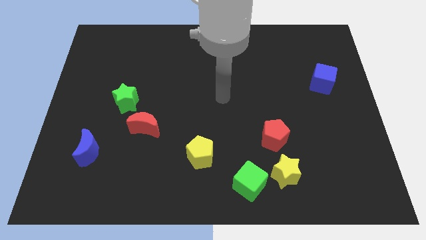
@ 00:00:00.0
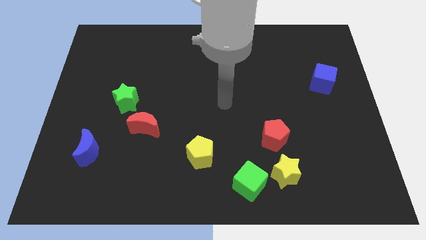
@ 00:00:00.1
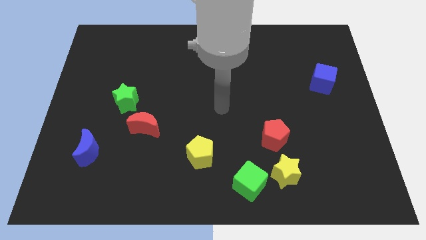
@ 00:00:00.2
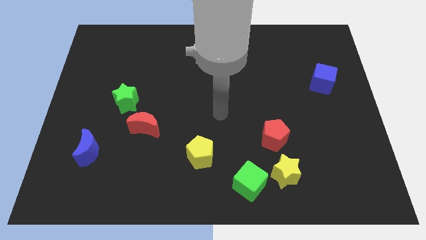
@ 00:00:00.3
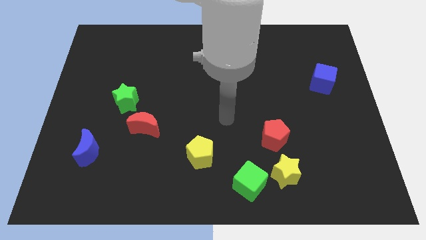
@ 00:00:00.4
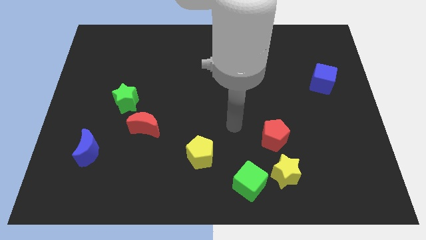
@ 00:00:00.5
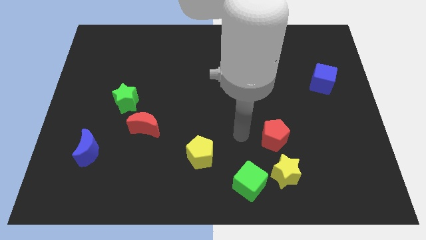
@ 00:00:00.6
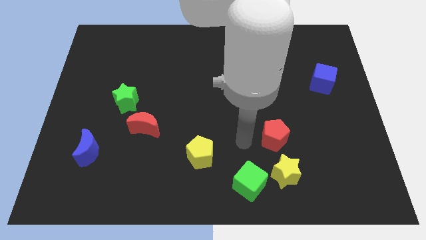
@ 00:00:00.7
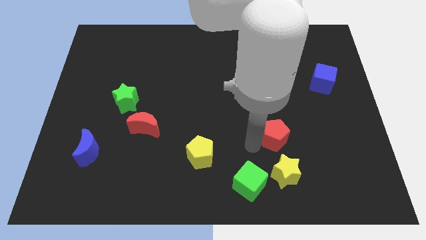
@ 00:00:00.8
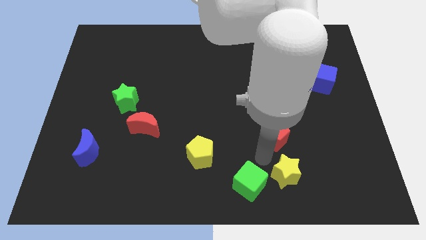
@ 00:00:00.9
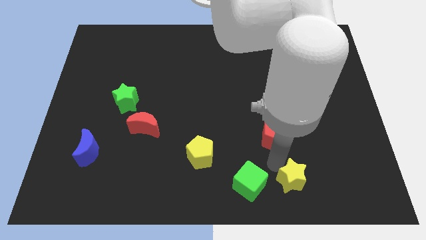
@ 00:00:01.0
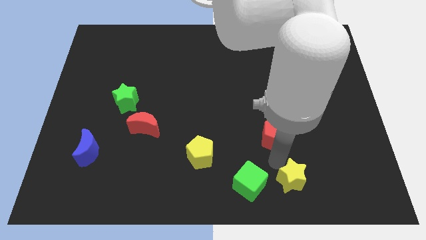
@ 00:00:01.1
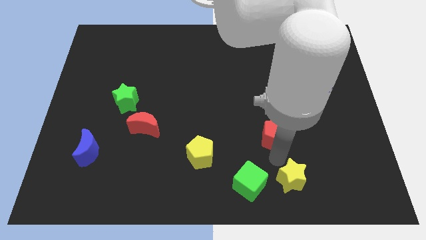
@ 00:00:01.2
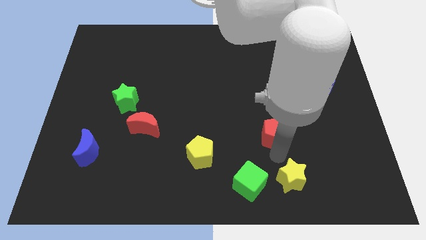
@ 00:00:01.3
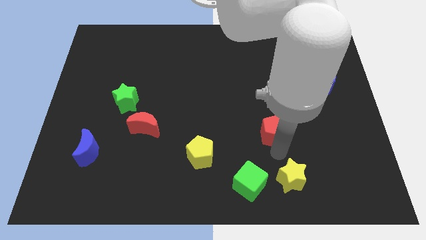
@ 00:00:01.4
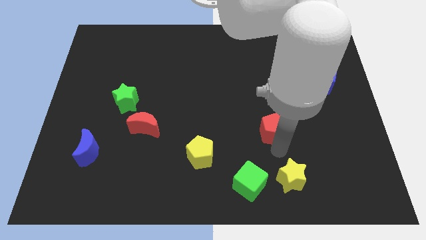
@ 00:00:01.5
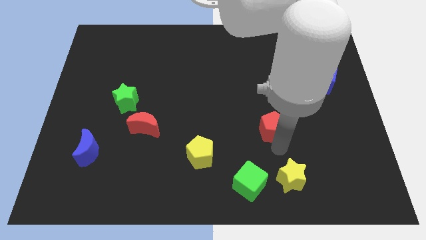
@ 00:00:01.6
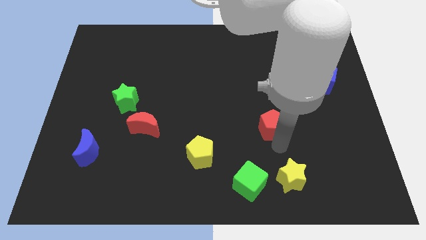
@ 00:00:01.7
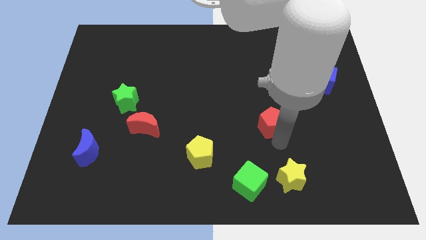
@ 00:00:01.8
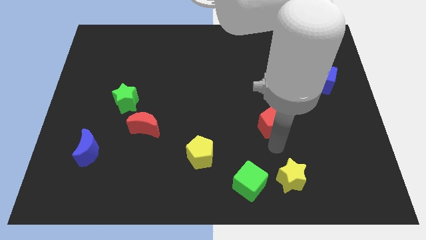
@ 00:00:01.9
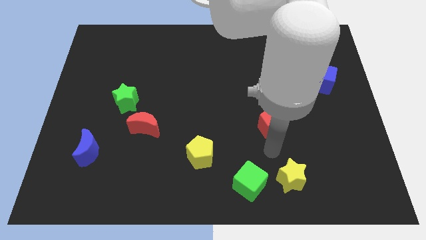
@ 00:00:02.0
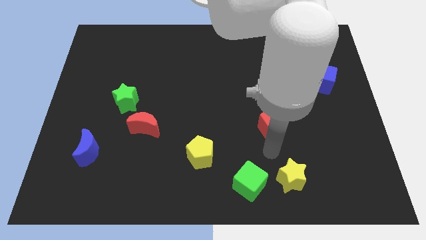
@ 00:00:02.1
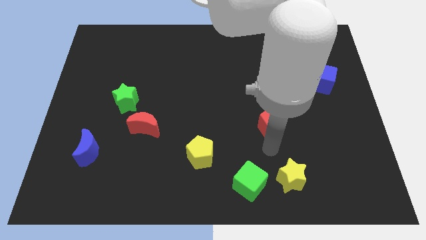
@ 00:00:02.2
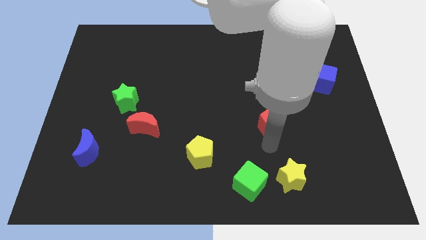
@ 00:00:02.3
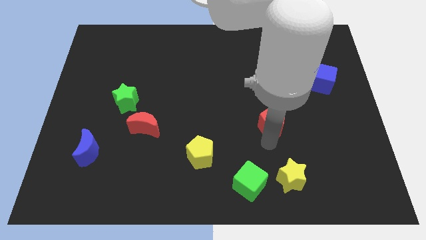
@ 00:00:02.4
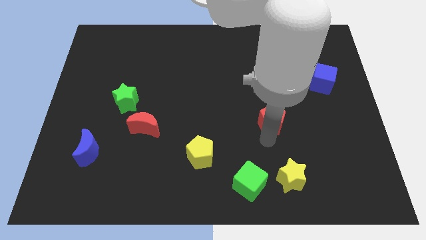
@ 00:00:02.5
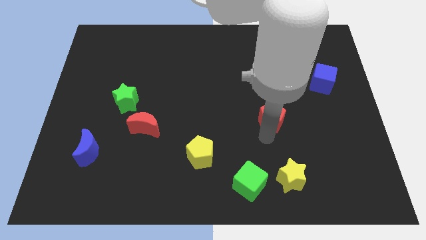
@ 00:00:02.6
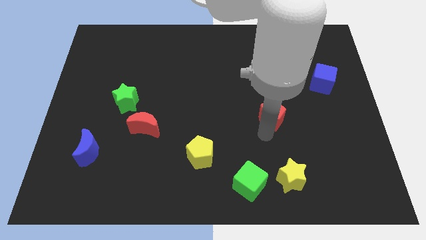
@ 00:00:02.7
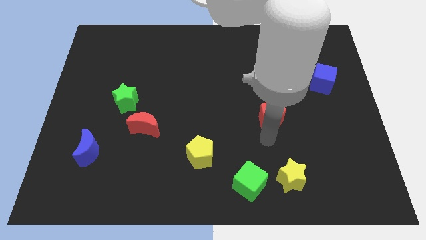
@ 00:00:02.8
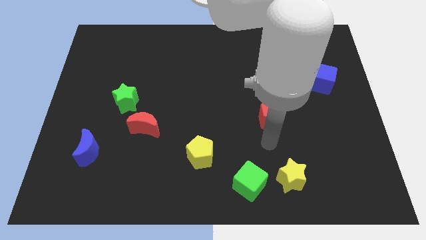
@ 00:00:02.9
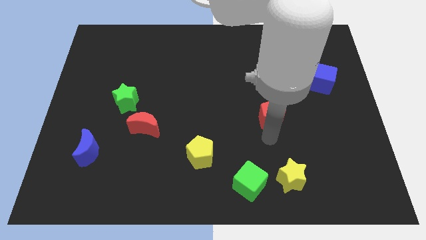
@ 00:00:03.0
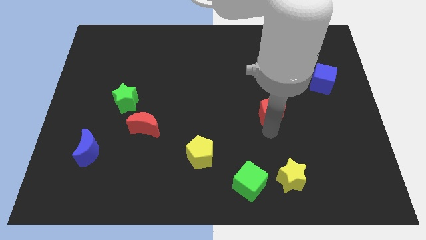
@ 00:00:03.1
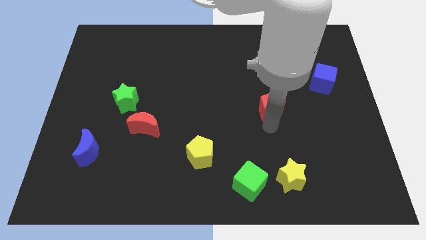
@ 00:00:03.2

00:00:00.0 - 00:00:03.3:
push the red pentagon somewhat upwards

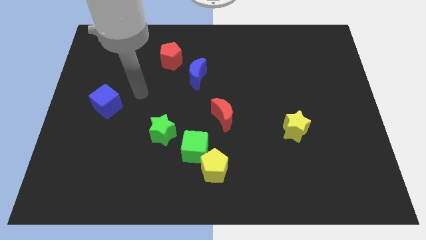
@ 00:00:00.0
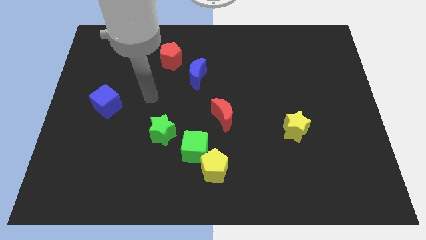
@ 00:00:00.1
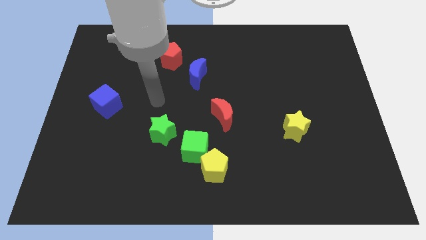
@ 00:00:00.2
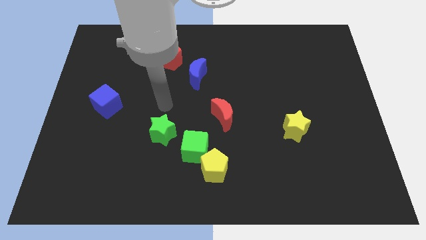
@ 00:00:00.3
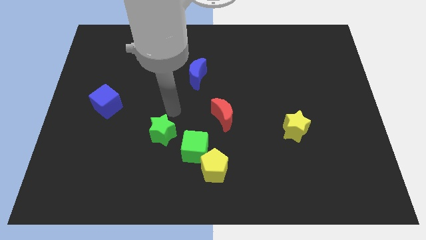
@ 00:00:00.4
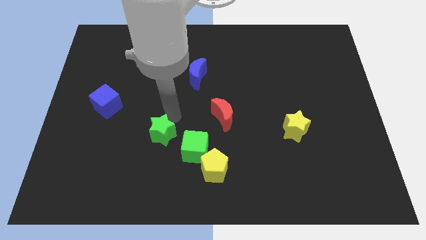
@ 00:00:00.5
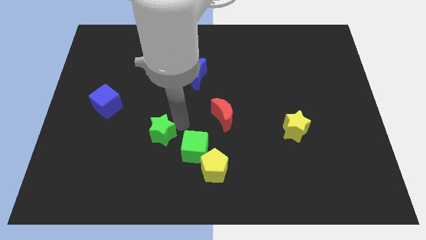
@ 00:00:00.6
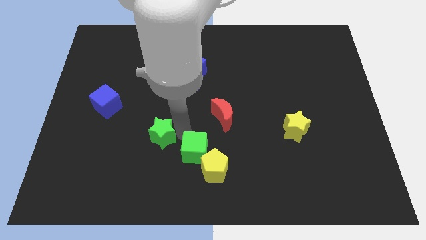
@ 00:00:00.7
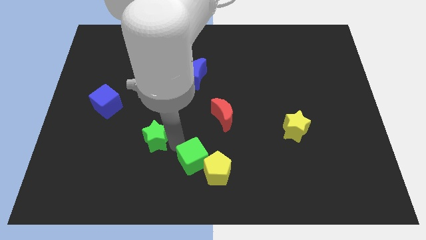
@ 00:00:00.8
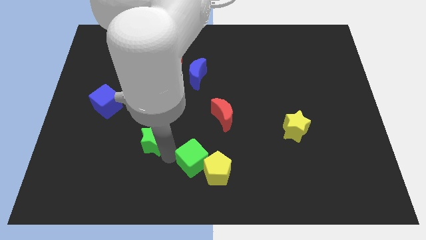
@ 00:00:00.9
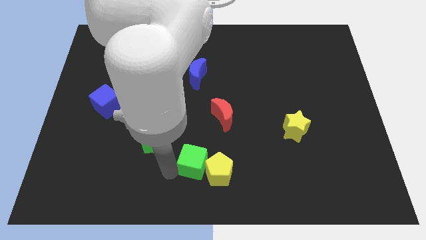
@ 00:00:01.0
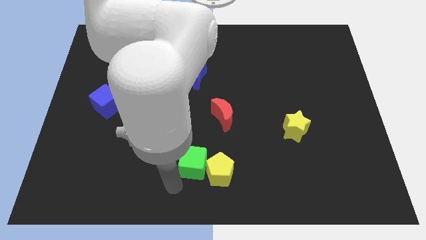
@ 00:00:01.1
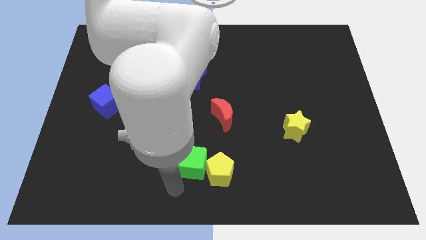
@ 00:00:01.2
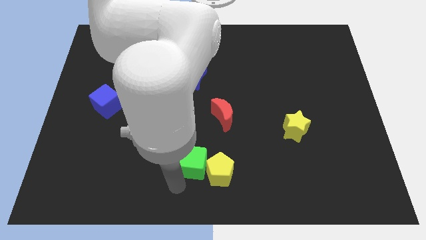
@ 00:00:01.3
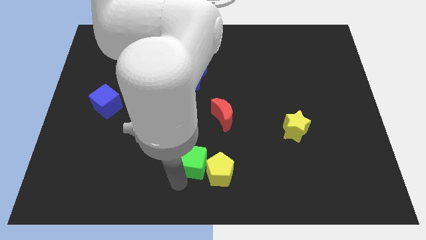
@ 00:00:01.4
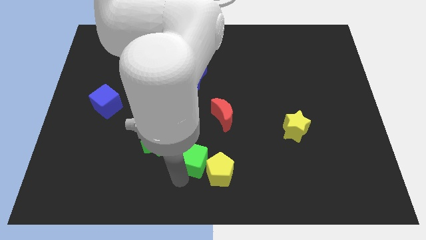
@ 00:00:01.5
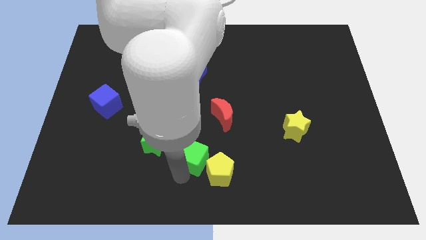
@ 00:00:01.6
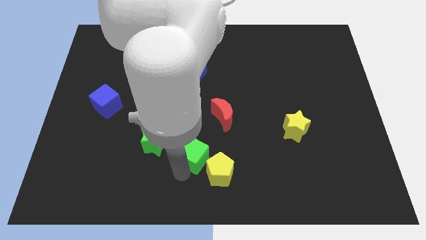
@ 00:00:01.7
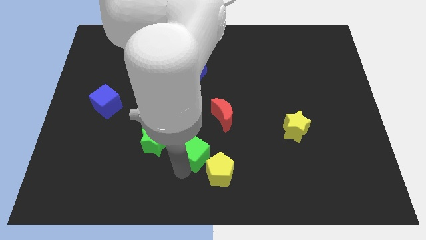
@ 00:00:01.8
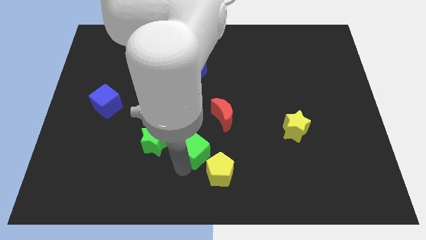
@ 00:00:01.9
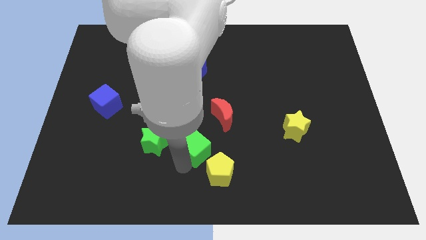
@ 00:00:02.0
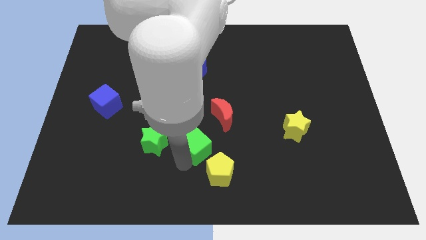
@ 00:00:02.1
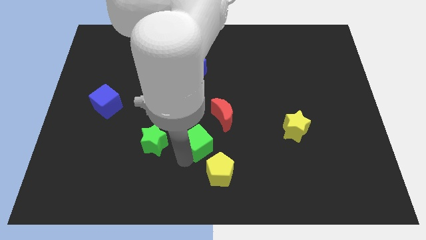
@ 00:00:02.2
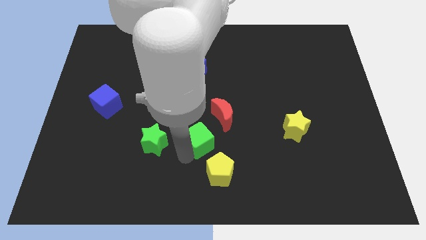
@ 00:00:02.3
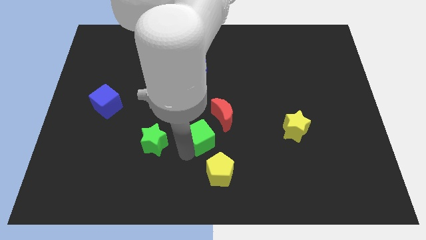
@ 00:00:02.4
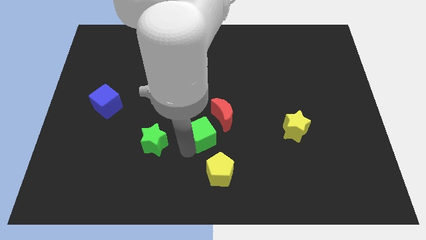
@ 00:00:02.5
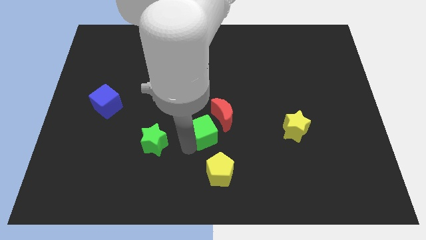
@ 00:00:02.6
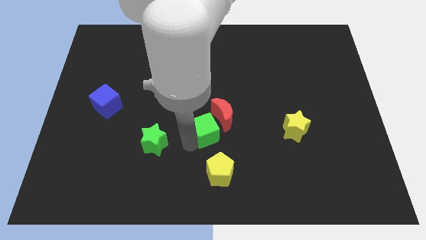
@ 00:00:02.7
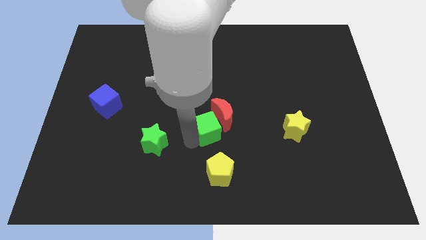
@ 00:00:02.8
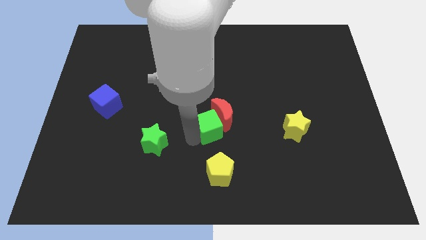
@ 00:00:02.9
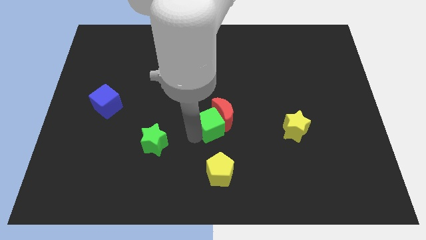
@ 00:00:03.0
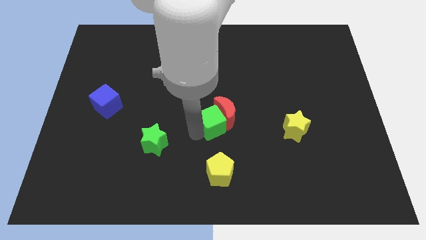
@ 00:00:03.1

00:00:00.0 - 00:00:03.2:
slightly slide the green cube up and then right

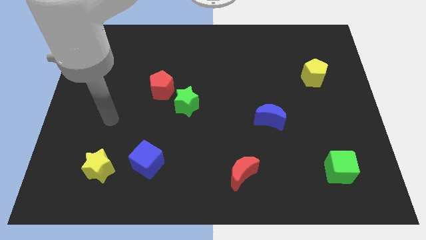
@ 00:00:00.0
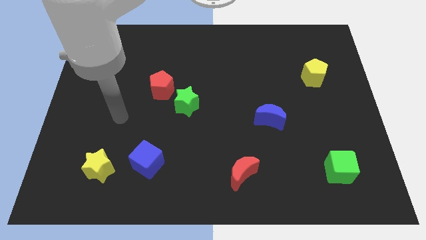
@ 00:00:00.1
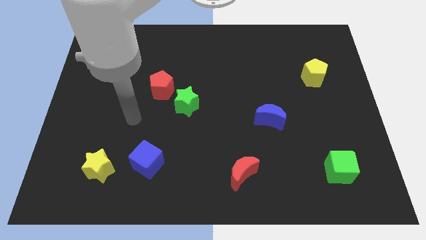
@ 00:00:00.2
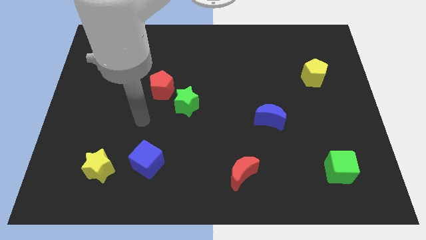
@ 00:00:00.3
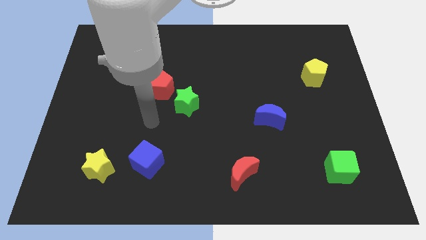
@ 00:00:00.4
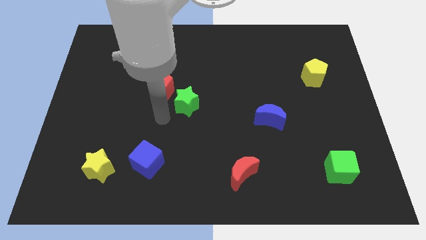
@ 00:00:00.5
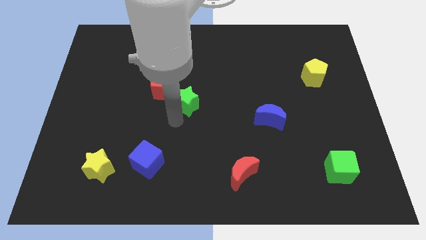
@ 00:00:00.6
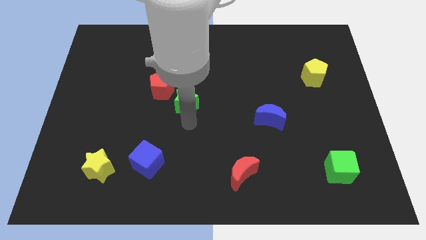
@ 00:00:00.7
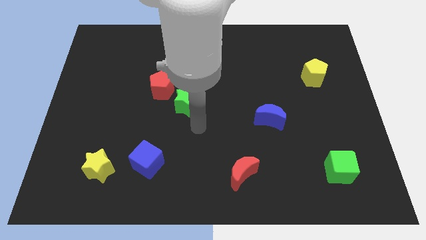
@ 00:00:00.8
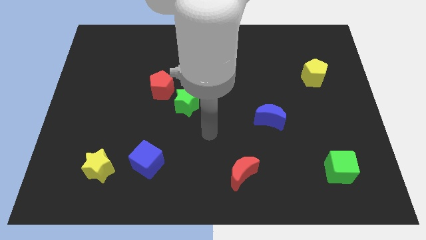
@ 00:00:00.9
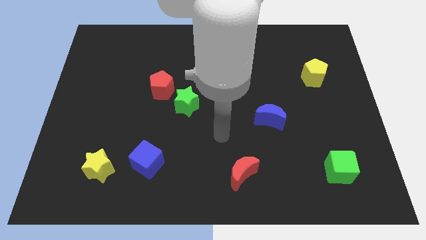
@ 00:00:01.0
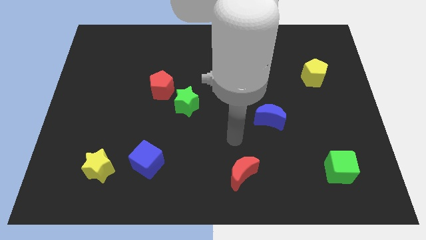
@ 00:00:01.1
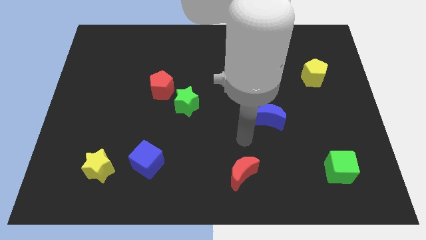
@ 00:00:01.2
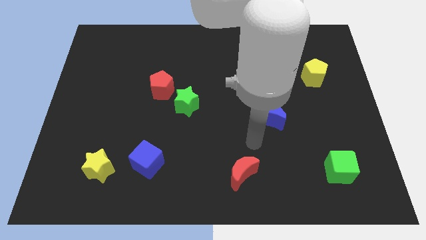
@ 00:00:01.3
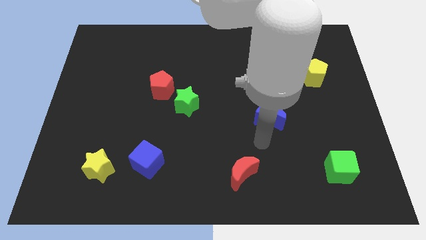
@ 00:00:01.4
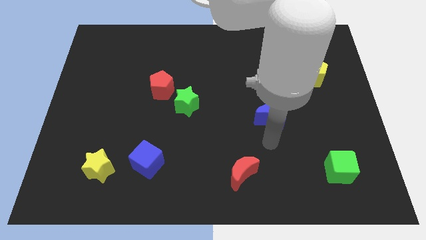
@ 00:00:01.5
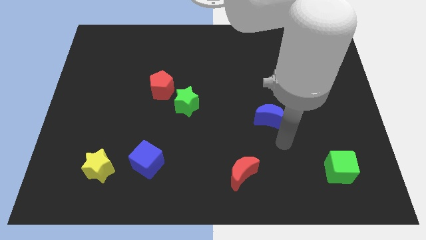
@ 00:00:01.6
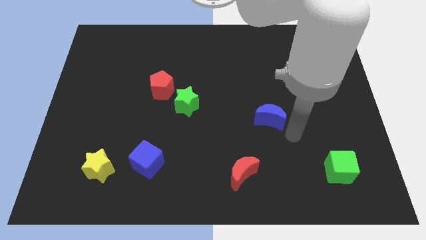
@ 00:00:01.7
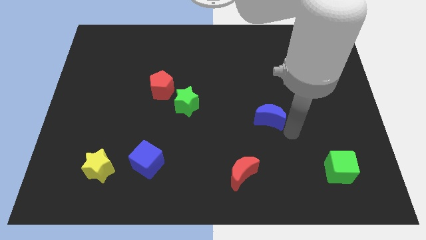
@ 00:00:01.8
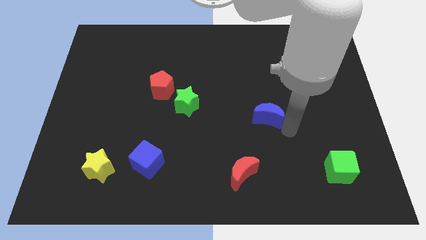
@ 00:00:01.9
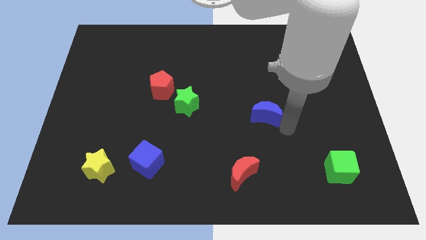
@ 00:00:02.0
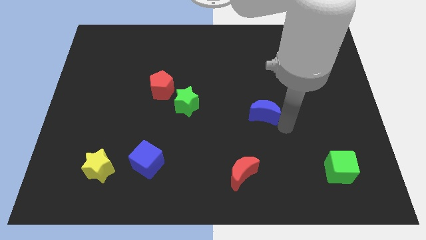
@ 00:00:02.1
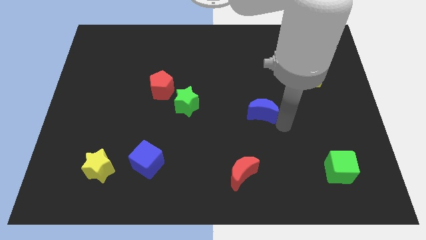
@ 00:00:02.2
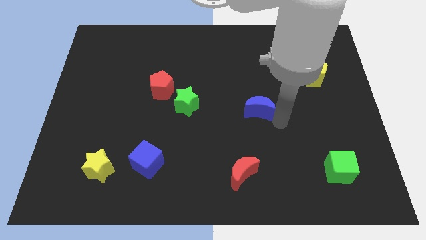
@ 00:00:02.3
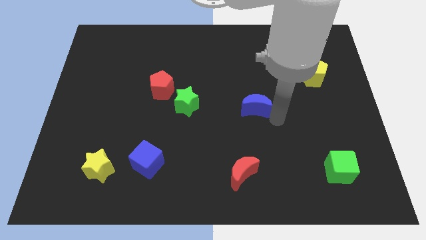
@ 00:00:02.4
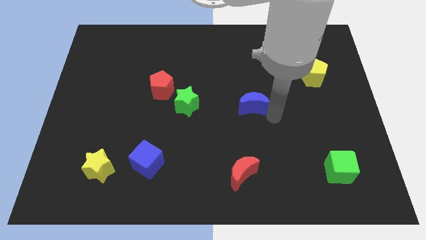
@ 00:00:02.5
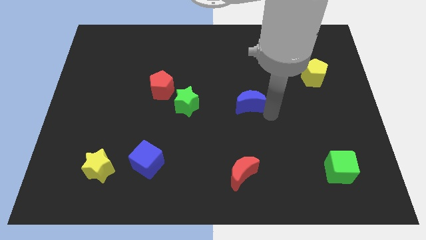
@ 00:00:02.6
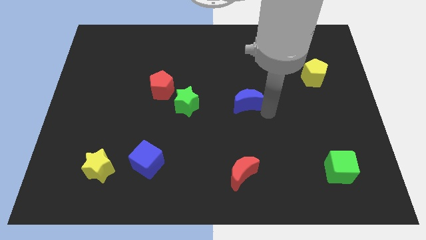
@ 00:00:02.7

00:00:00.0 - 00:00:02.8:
slightly push the blue moon up and left diagonally
